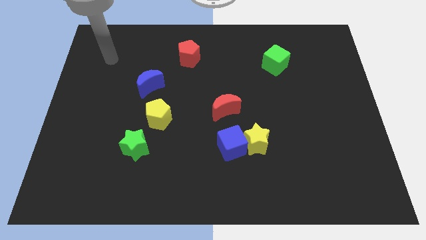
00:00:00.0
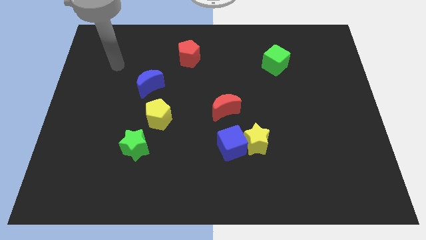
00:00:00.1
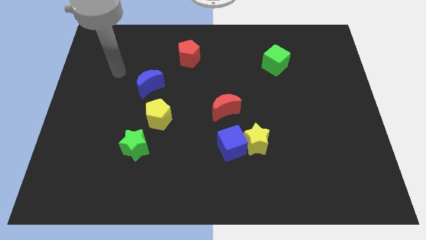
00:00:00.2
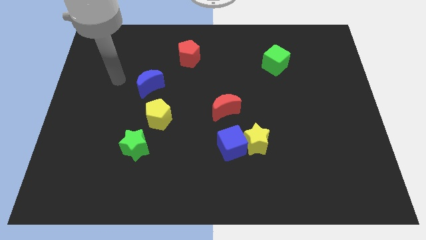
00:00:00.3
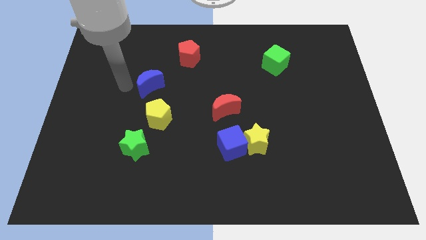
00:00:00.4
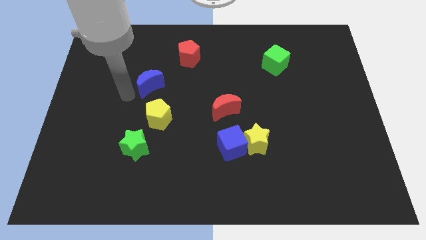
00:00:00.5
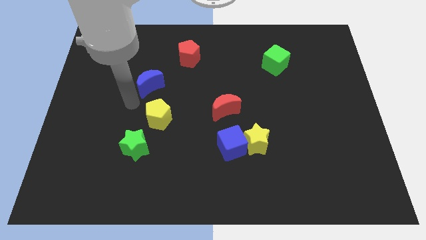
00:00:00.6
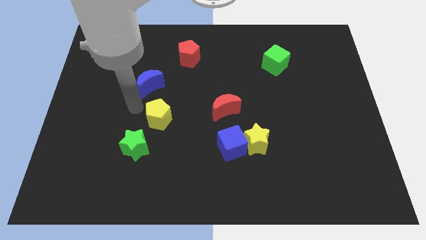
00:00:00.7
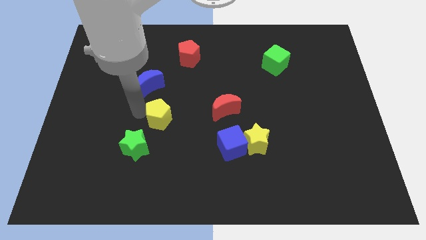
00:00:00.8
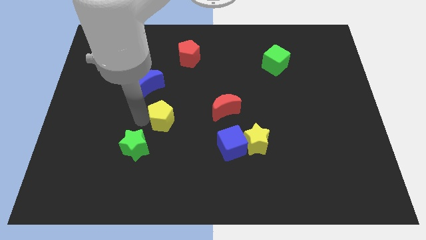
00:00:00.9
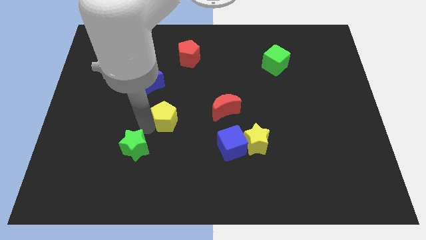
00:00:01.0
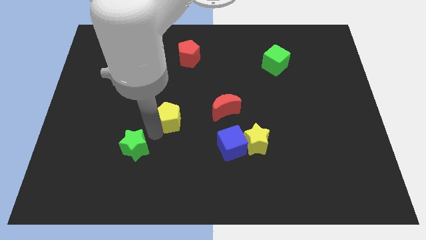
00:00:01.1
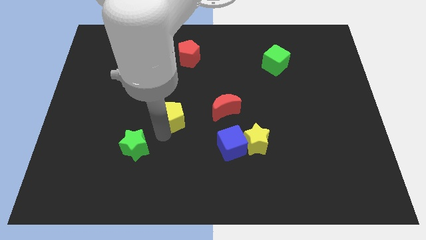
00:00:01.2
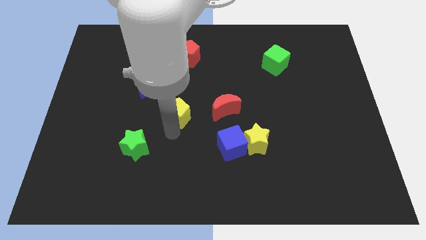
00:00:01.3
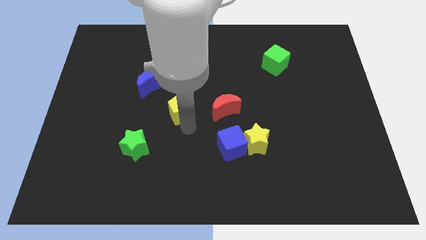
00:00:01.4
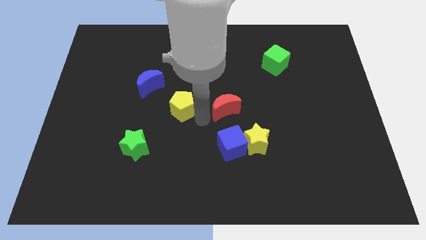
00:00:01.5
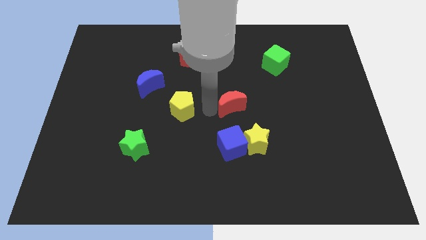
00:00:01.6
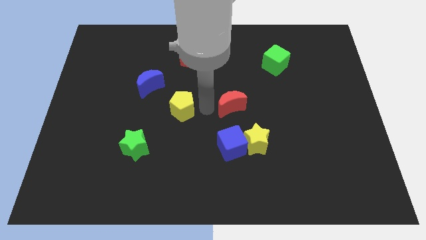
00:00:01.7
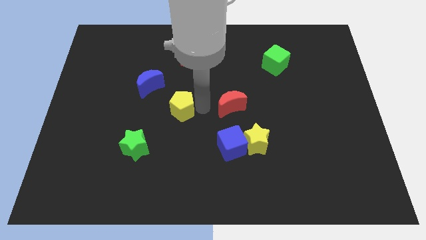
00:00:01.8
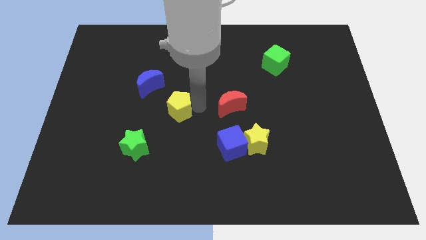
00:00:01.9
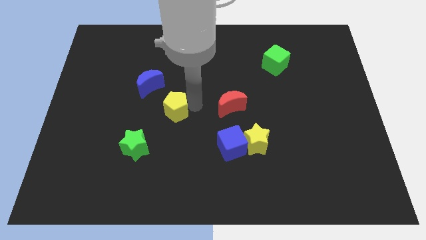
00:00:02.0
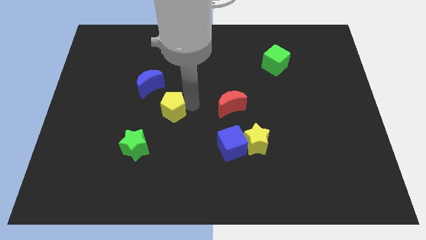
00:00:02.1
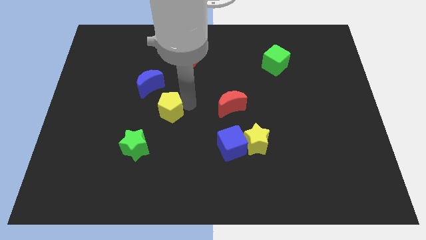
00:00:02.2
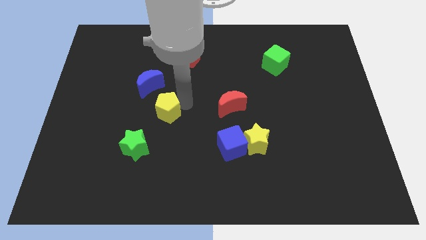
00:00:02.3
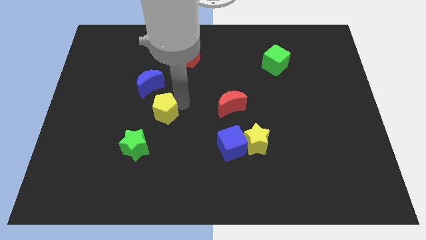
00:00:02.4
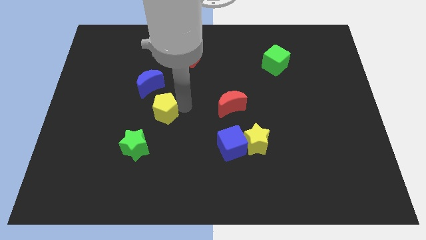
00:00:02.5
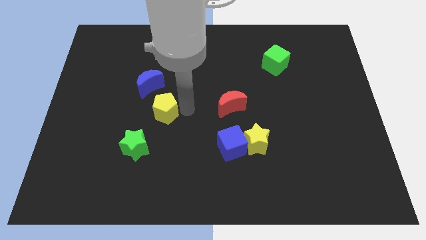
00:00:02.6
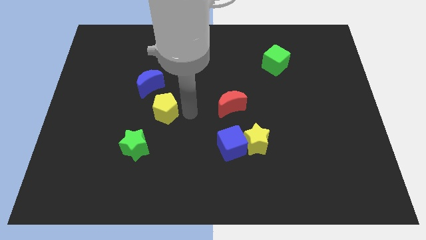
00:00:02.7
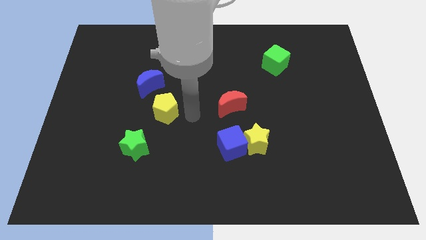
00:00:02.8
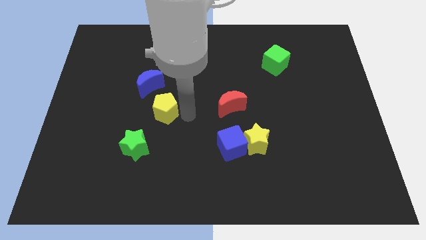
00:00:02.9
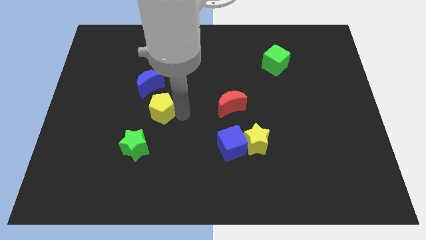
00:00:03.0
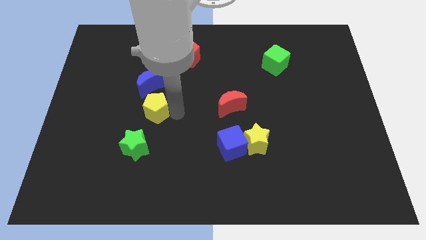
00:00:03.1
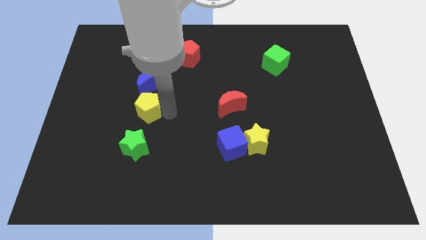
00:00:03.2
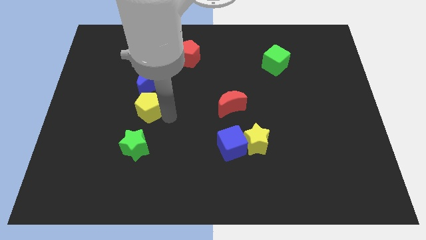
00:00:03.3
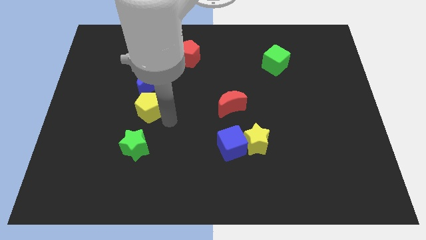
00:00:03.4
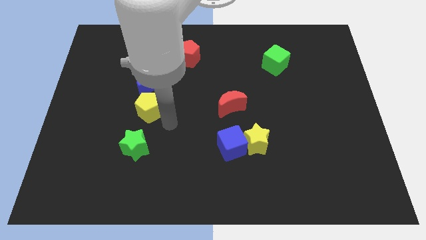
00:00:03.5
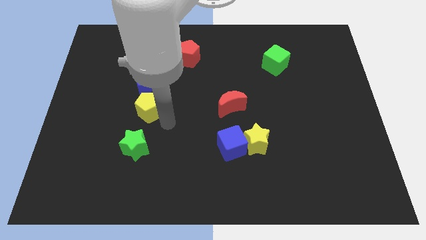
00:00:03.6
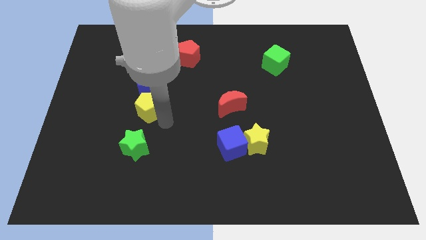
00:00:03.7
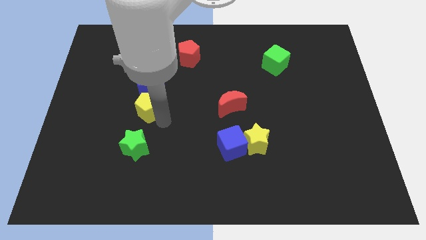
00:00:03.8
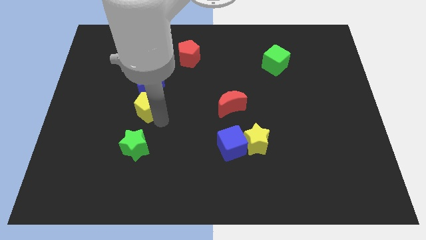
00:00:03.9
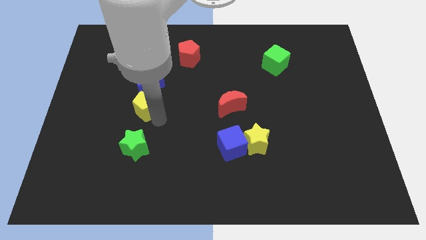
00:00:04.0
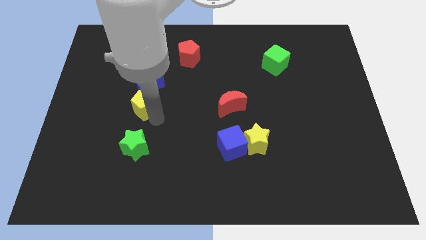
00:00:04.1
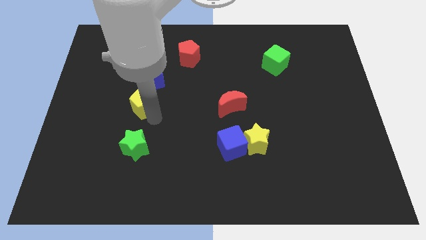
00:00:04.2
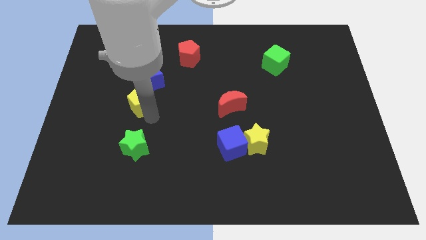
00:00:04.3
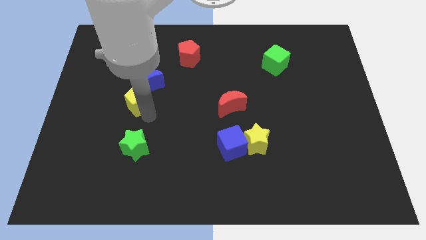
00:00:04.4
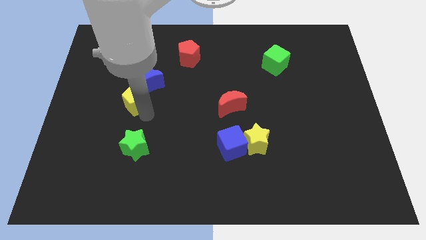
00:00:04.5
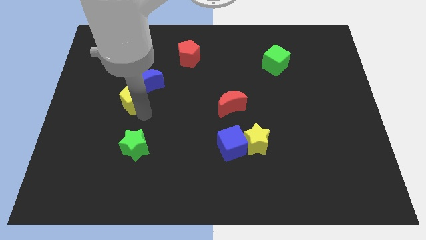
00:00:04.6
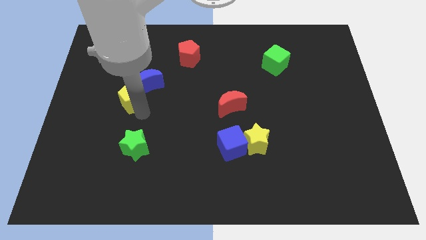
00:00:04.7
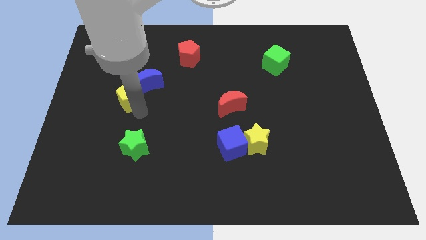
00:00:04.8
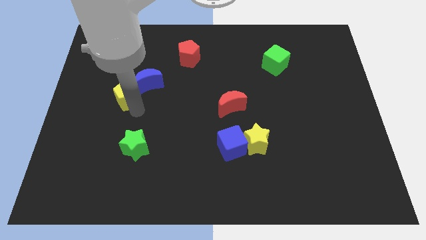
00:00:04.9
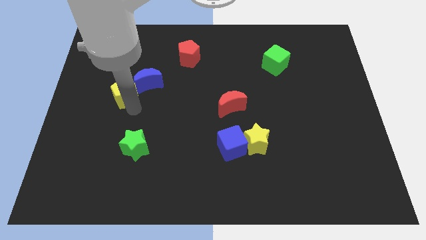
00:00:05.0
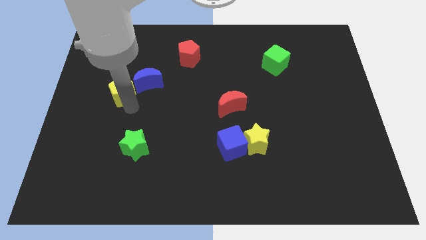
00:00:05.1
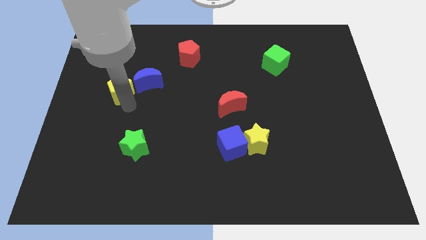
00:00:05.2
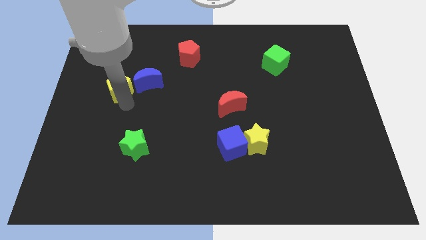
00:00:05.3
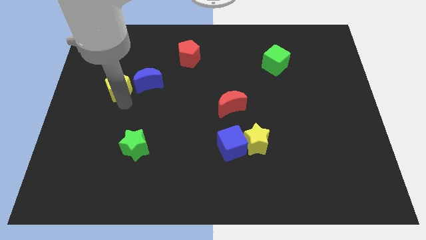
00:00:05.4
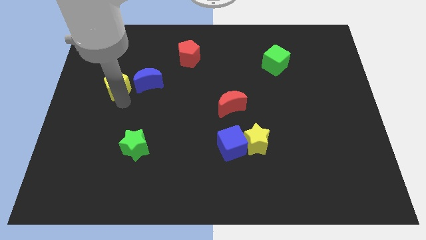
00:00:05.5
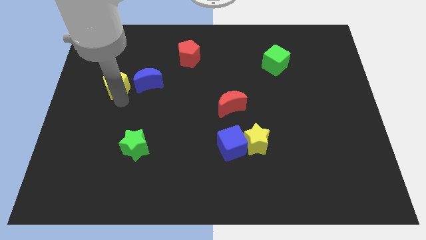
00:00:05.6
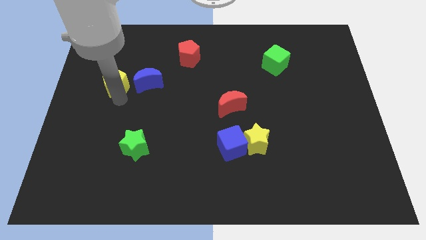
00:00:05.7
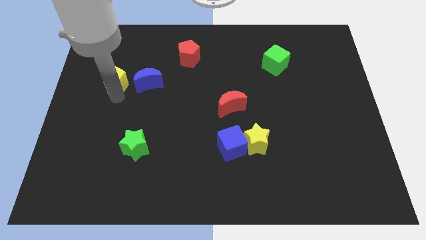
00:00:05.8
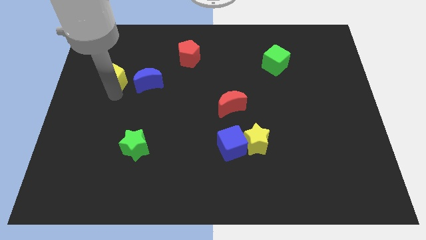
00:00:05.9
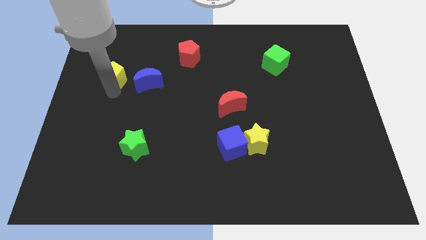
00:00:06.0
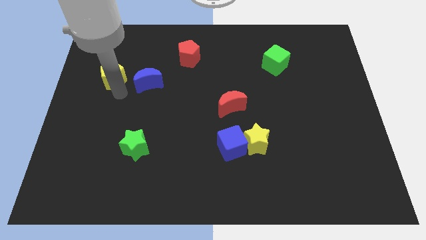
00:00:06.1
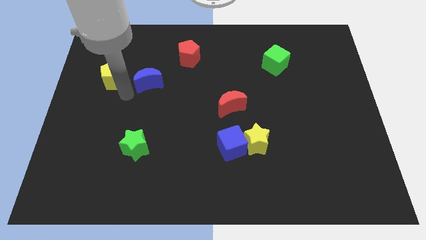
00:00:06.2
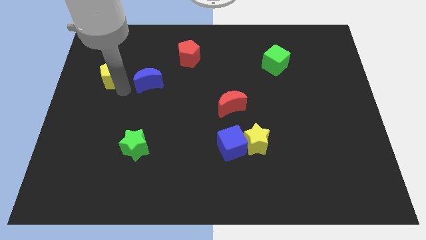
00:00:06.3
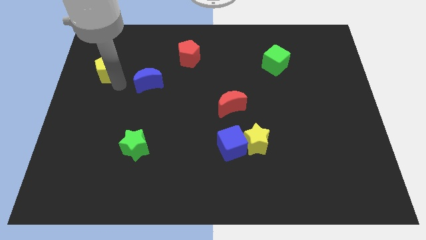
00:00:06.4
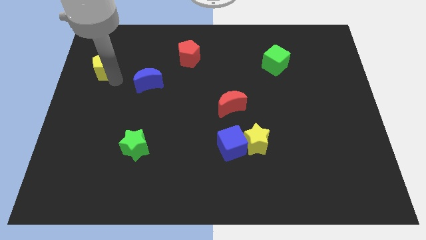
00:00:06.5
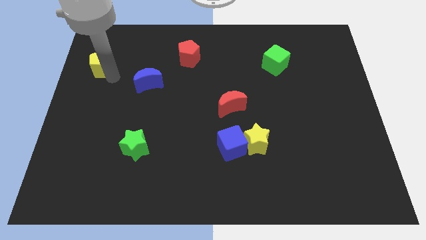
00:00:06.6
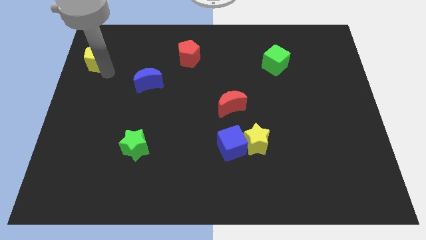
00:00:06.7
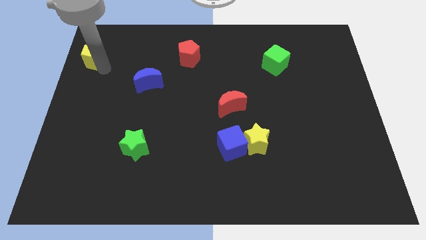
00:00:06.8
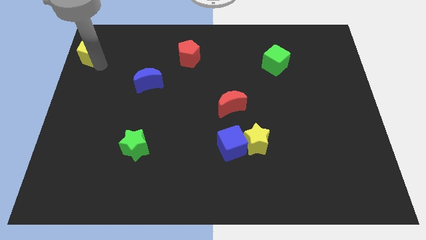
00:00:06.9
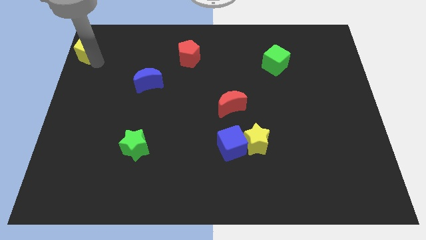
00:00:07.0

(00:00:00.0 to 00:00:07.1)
push the yellow pentagon to the upper left corner

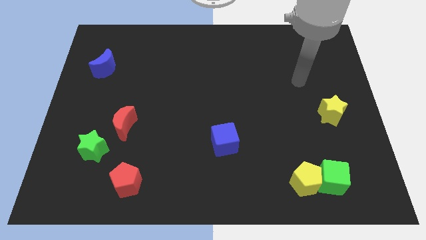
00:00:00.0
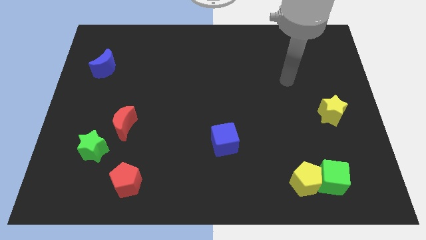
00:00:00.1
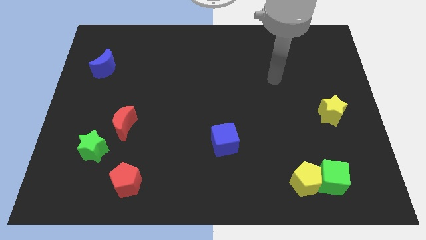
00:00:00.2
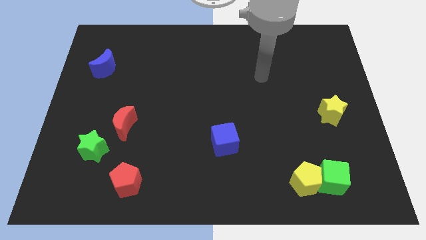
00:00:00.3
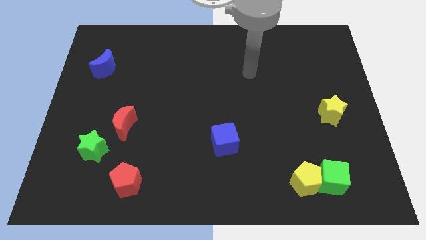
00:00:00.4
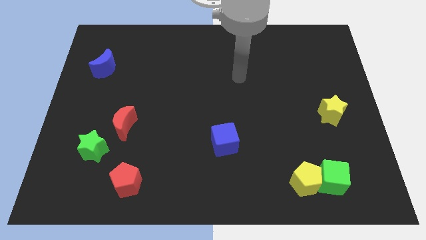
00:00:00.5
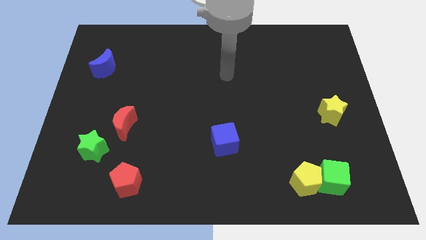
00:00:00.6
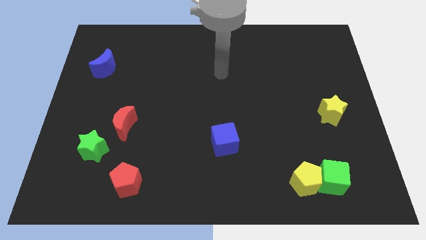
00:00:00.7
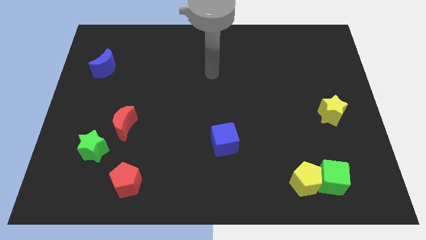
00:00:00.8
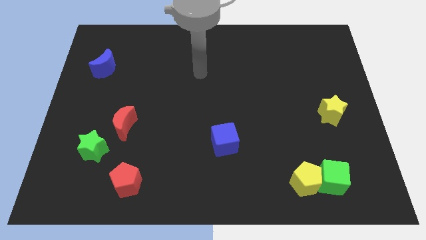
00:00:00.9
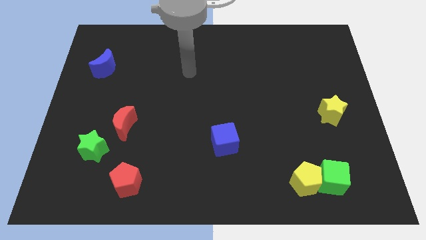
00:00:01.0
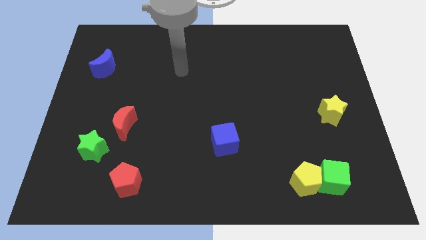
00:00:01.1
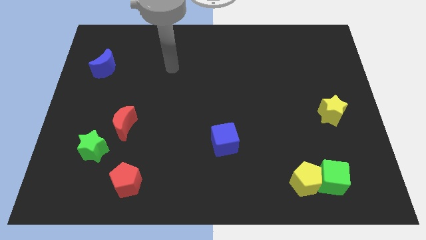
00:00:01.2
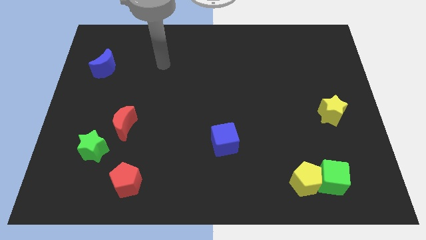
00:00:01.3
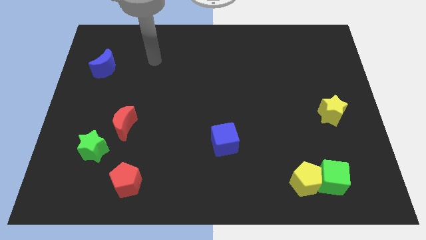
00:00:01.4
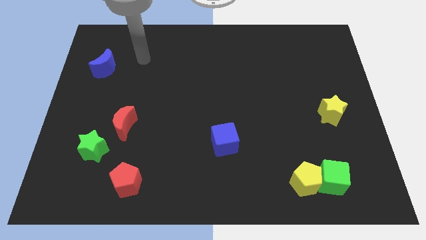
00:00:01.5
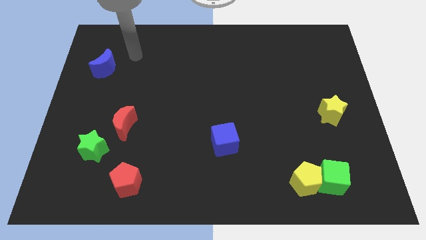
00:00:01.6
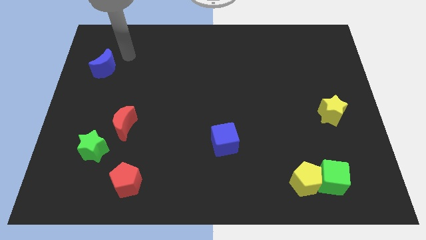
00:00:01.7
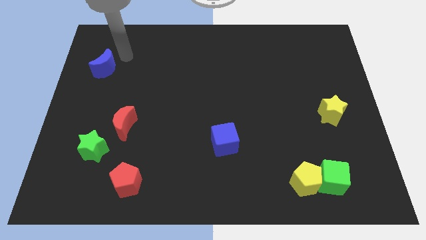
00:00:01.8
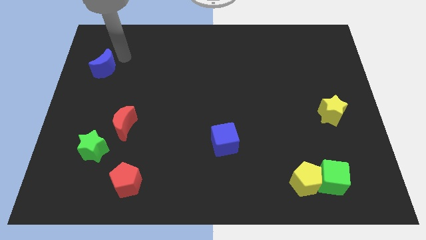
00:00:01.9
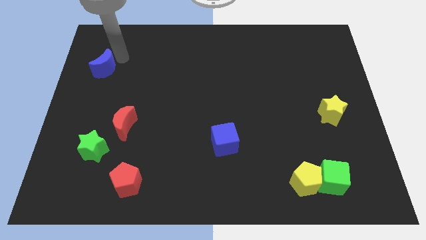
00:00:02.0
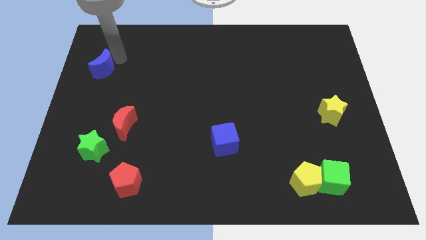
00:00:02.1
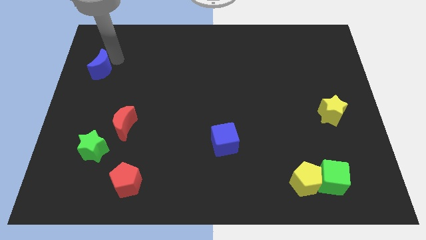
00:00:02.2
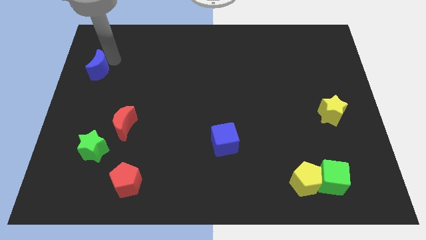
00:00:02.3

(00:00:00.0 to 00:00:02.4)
slide the blue moon to the center left
